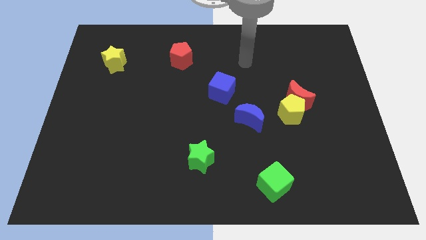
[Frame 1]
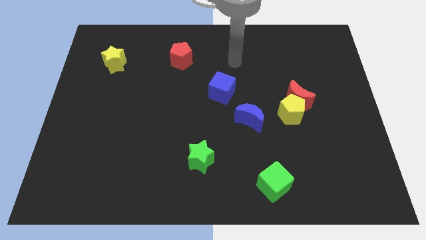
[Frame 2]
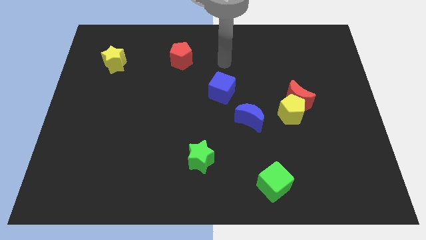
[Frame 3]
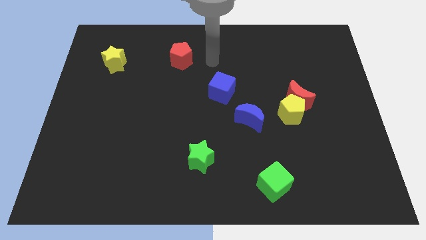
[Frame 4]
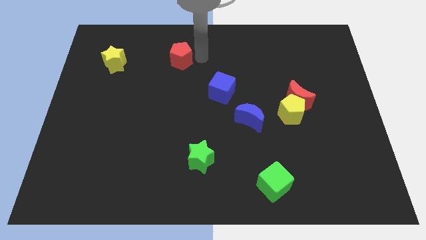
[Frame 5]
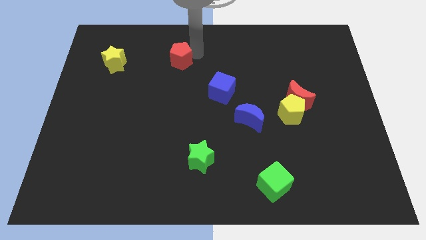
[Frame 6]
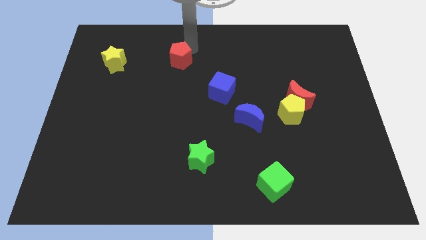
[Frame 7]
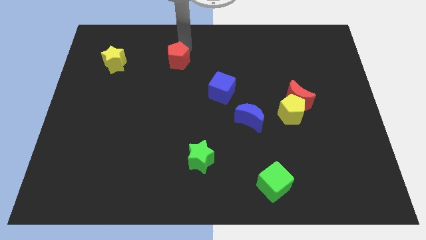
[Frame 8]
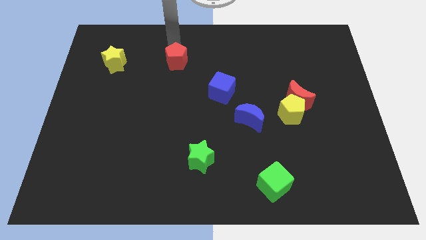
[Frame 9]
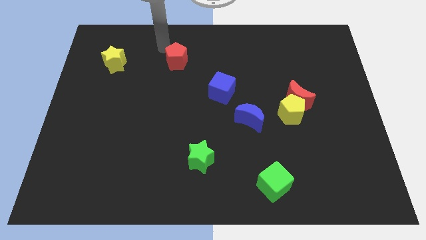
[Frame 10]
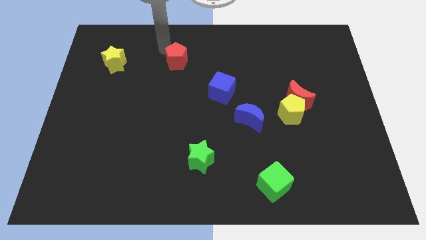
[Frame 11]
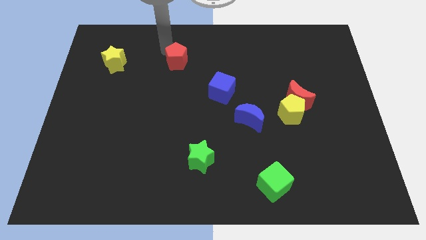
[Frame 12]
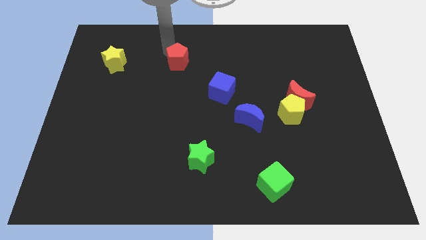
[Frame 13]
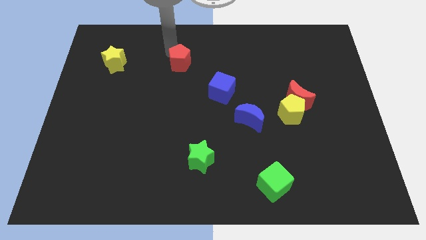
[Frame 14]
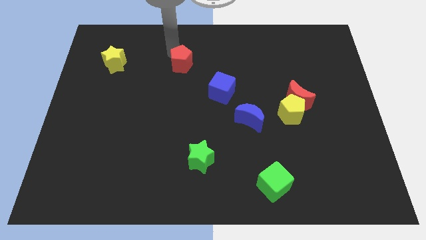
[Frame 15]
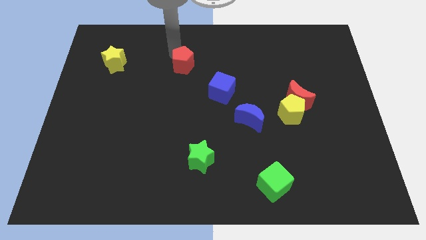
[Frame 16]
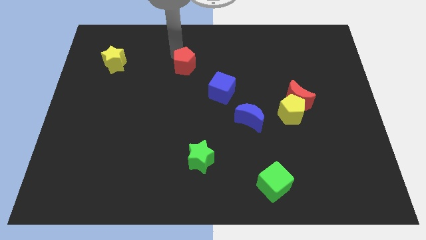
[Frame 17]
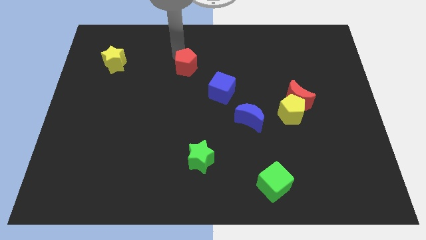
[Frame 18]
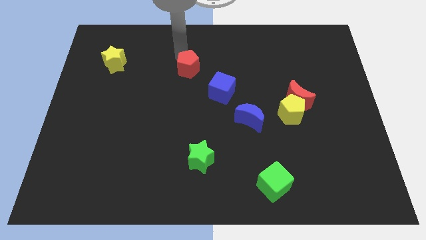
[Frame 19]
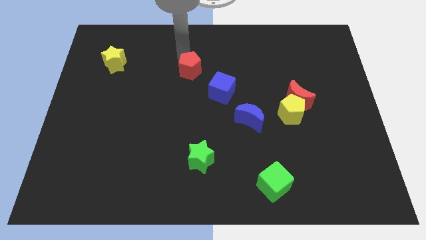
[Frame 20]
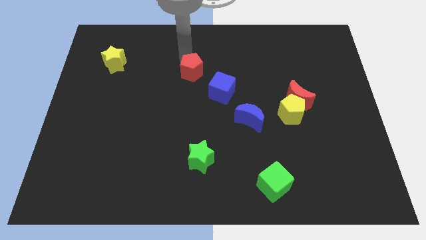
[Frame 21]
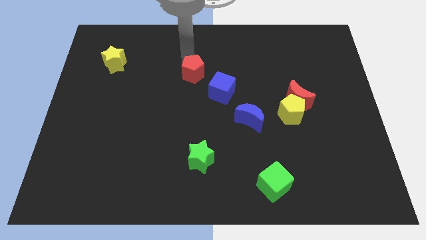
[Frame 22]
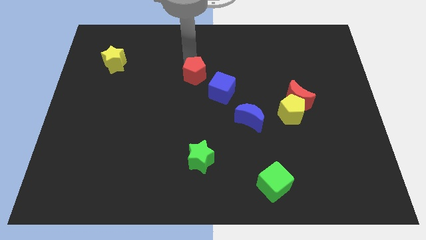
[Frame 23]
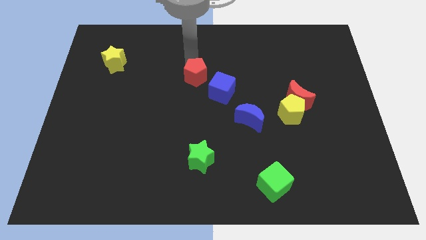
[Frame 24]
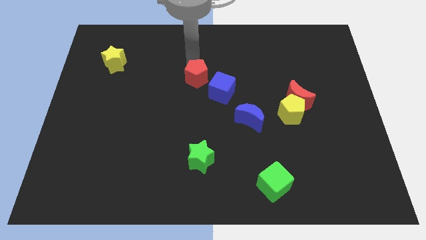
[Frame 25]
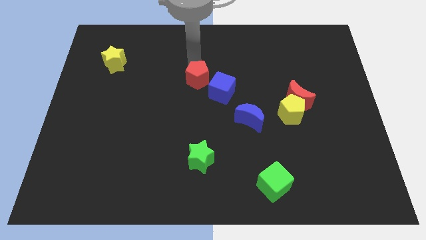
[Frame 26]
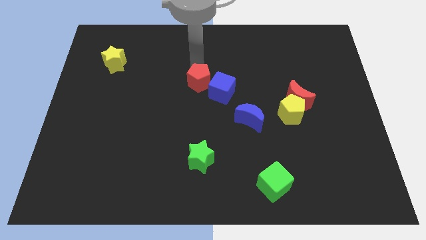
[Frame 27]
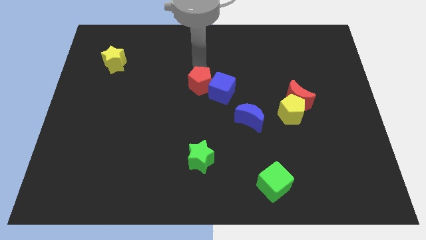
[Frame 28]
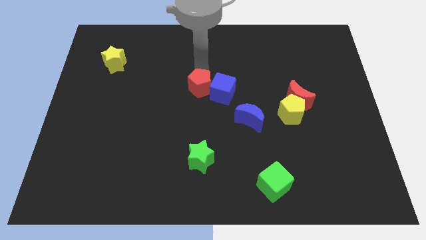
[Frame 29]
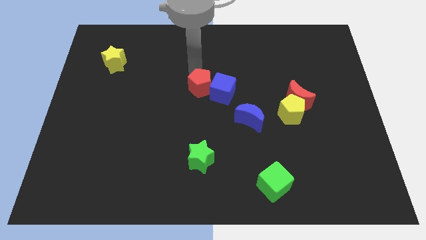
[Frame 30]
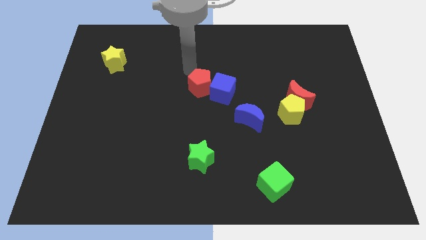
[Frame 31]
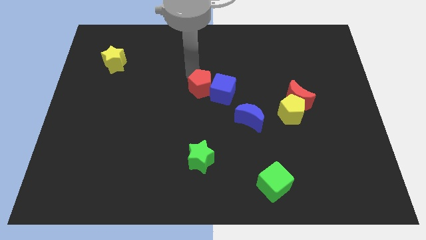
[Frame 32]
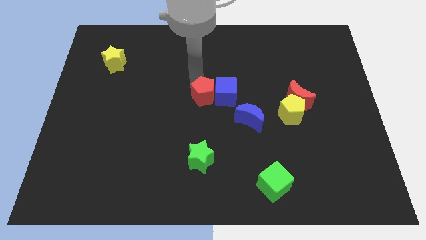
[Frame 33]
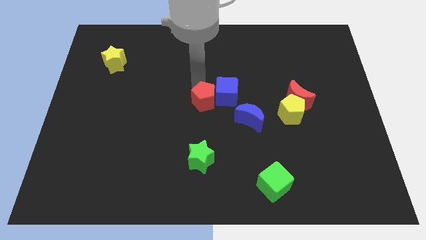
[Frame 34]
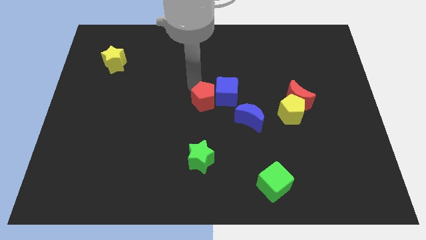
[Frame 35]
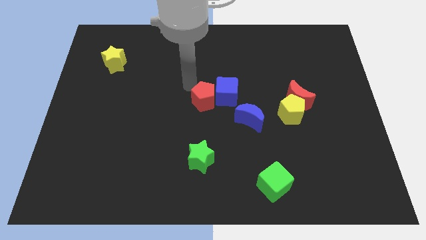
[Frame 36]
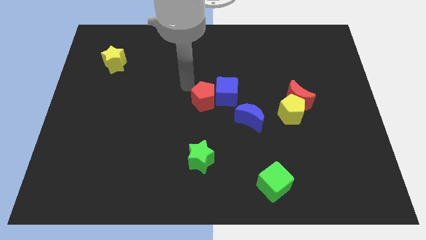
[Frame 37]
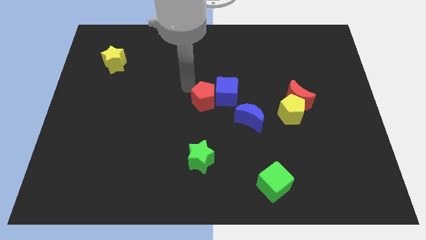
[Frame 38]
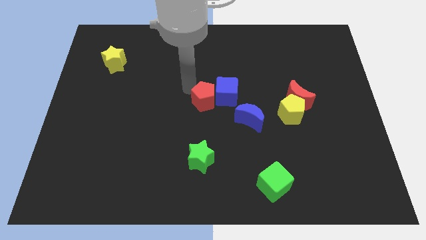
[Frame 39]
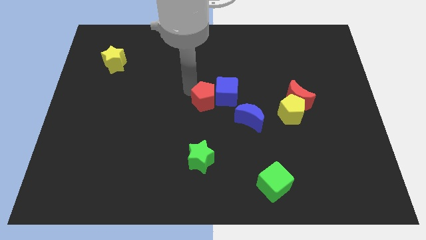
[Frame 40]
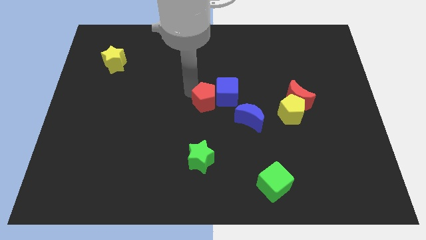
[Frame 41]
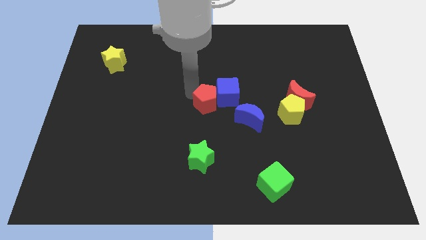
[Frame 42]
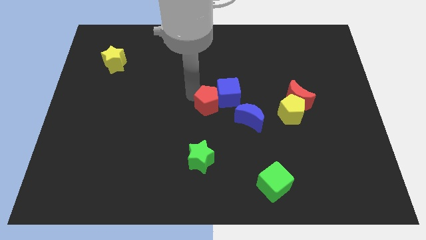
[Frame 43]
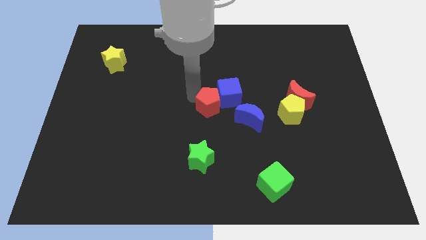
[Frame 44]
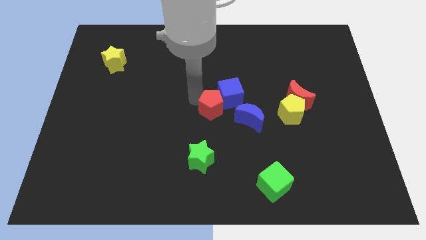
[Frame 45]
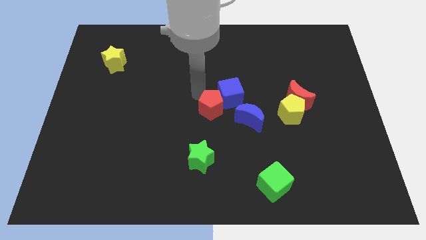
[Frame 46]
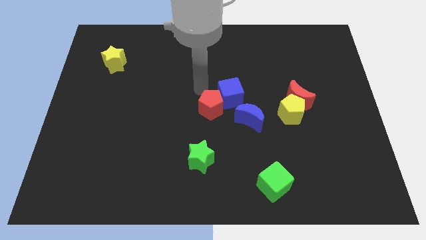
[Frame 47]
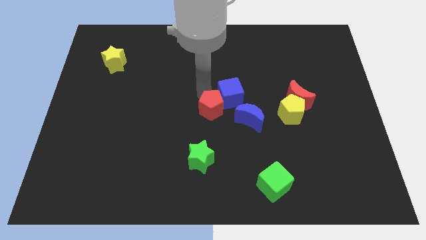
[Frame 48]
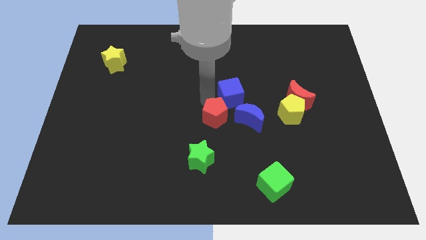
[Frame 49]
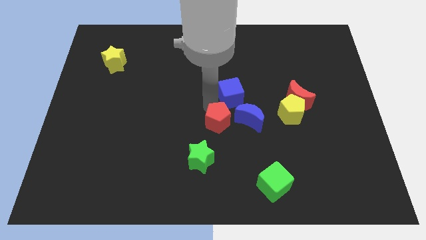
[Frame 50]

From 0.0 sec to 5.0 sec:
slide the red pentagon diagonally down and to the left of the blue moon

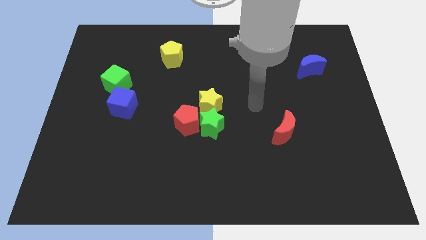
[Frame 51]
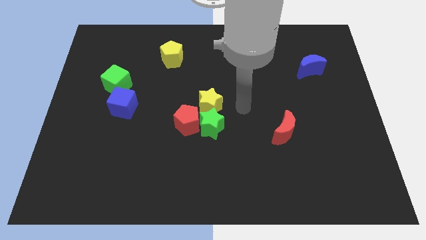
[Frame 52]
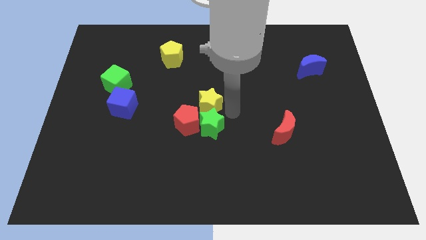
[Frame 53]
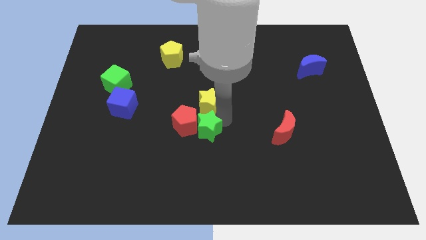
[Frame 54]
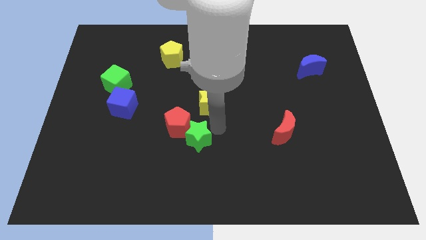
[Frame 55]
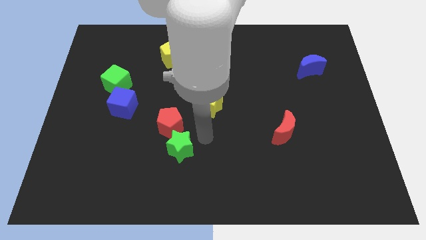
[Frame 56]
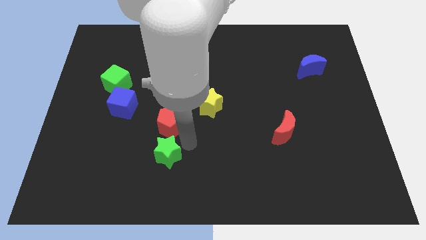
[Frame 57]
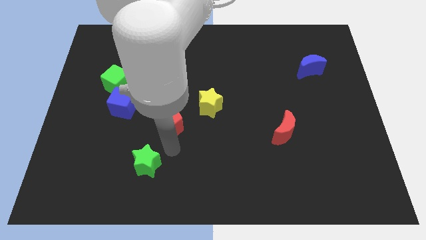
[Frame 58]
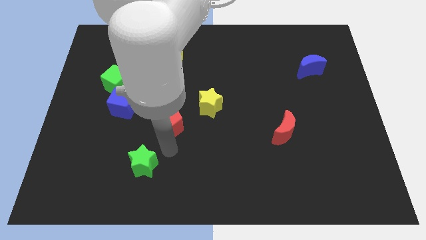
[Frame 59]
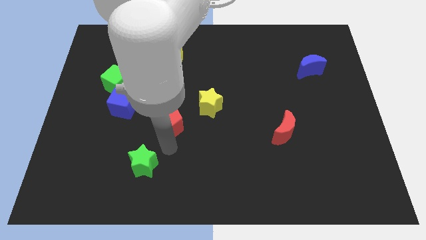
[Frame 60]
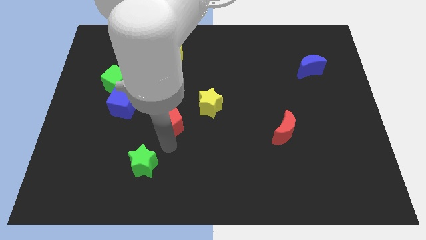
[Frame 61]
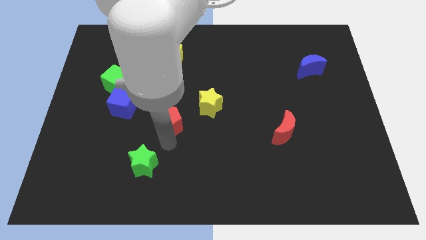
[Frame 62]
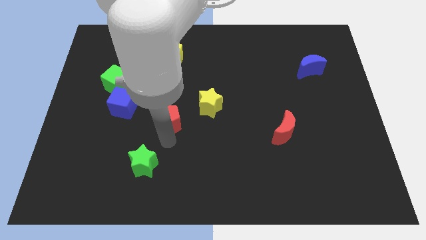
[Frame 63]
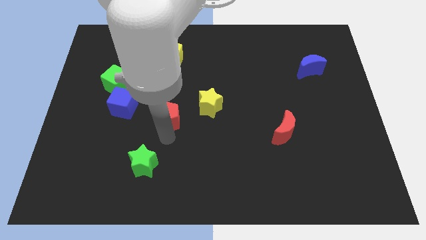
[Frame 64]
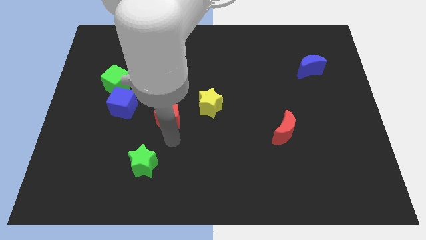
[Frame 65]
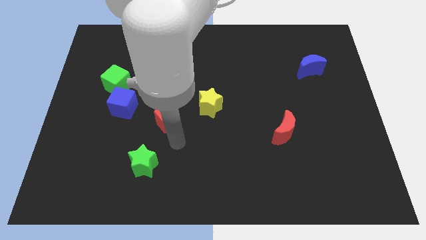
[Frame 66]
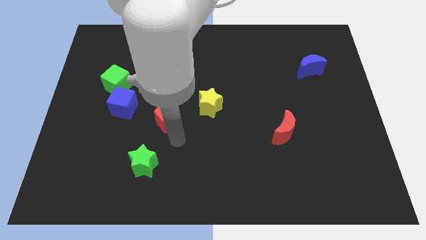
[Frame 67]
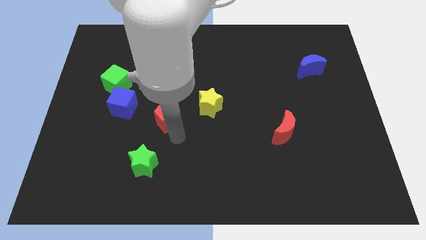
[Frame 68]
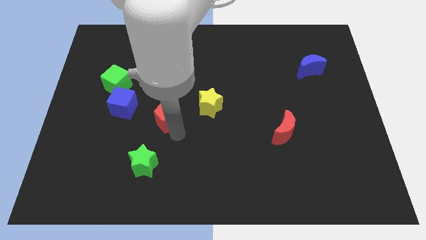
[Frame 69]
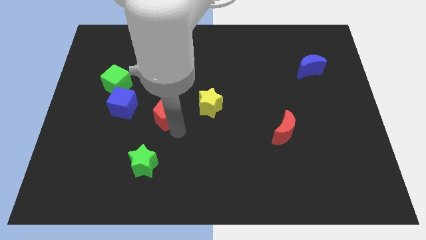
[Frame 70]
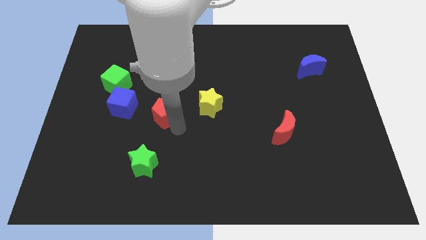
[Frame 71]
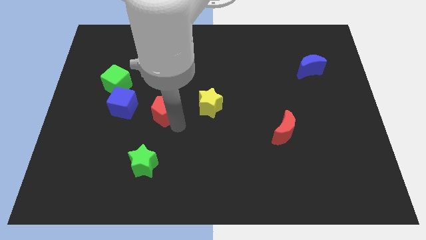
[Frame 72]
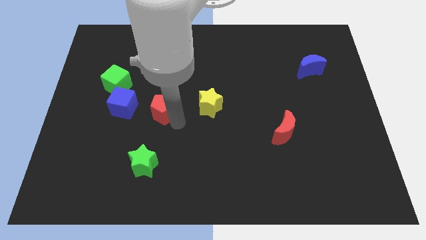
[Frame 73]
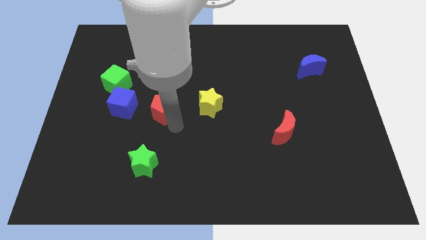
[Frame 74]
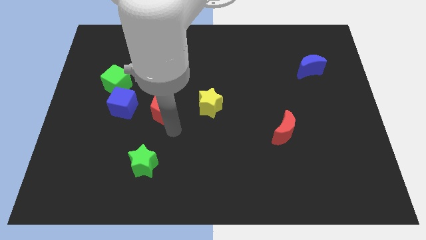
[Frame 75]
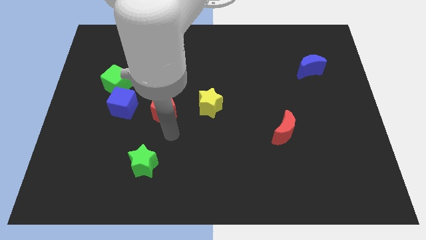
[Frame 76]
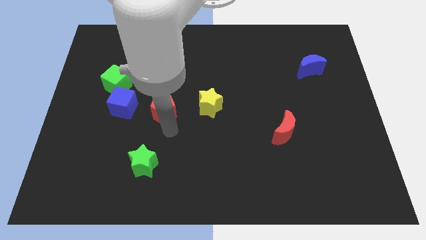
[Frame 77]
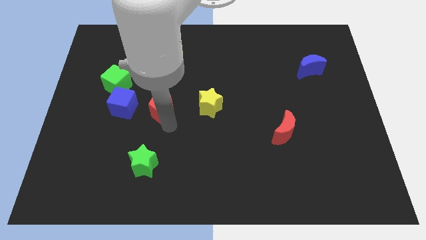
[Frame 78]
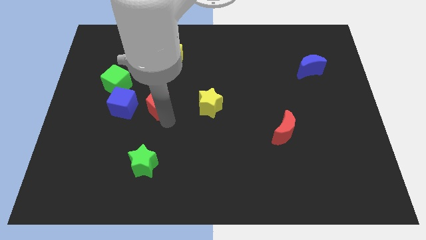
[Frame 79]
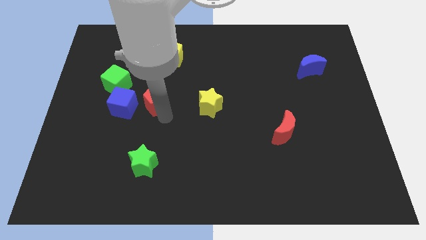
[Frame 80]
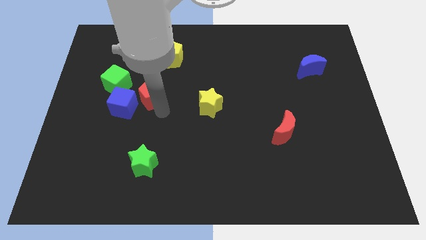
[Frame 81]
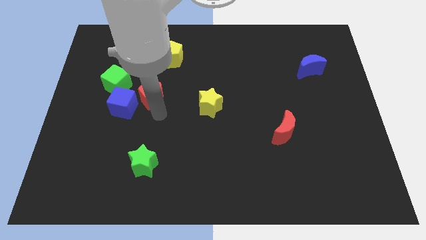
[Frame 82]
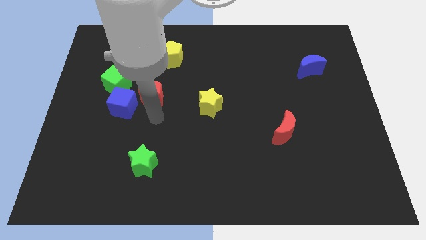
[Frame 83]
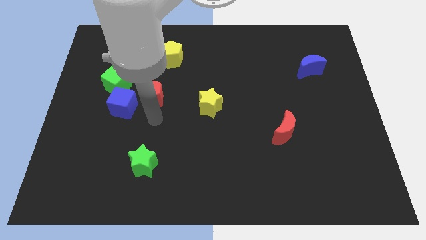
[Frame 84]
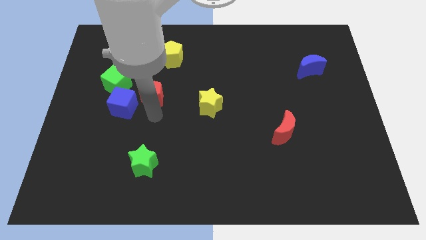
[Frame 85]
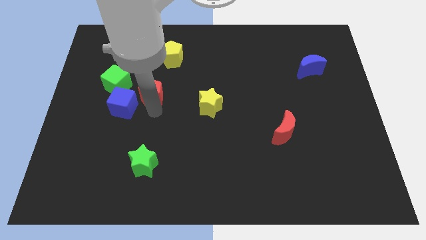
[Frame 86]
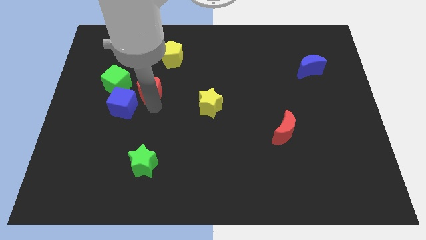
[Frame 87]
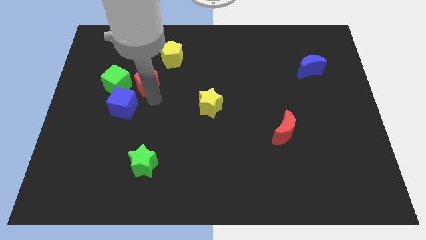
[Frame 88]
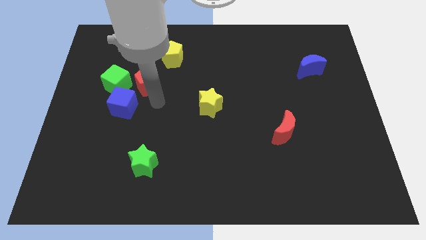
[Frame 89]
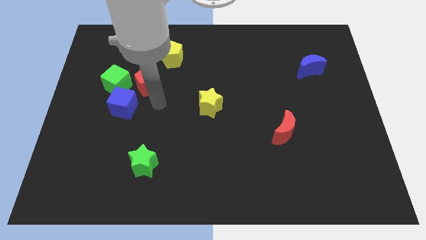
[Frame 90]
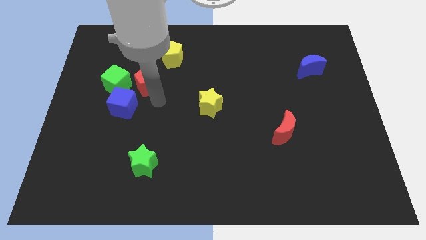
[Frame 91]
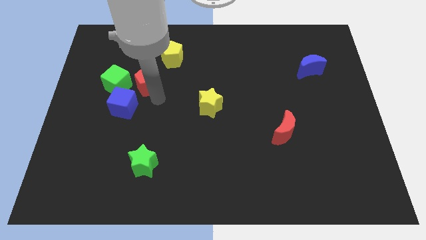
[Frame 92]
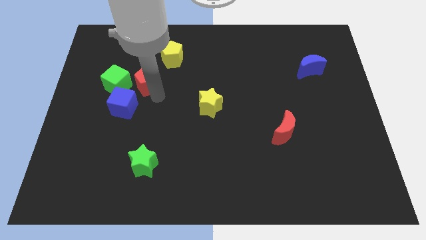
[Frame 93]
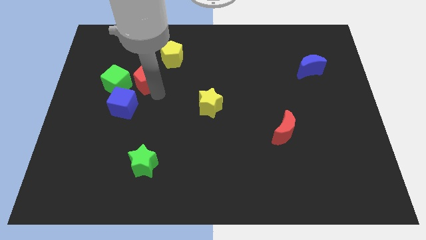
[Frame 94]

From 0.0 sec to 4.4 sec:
push the red pentagon to the top right side of the green cube
